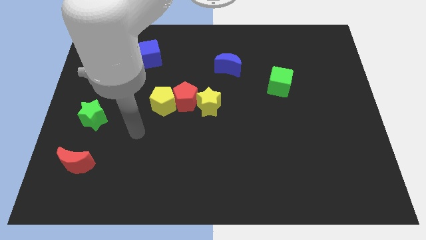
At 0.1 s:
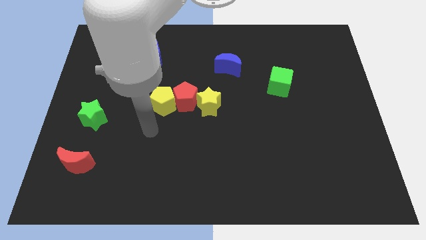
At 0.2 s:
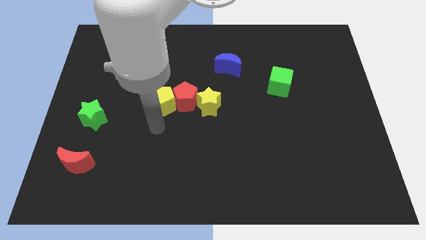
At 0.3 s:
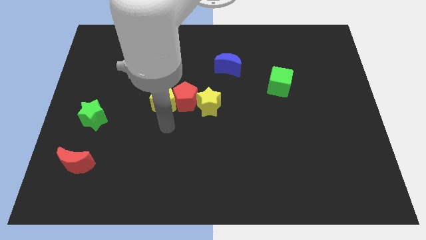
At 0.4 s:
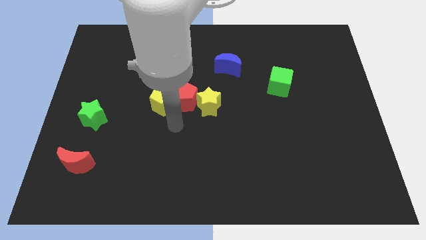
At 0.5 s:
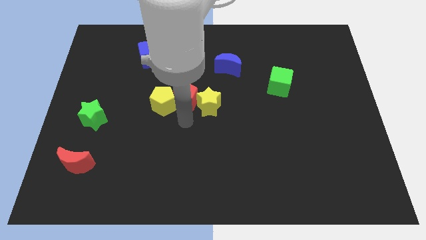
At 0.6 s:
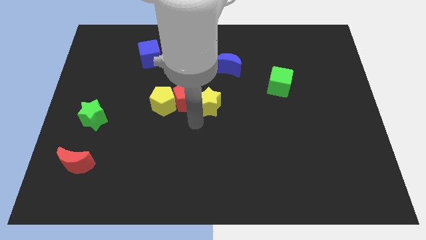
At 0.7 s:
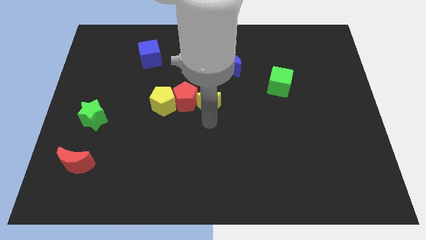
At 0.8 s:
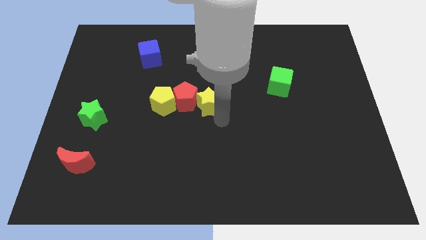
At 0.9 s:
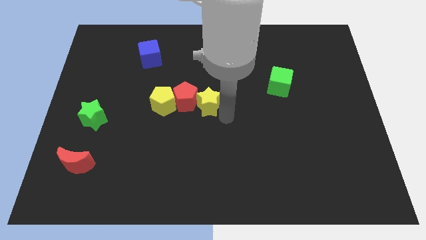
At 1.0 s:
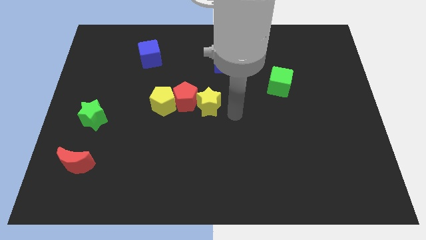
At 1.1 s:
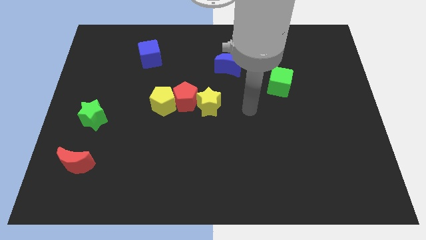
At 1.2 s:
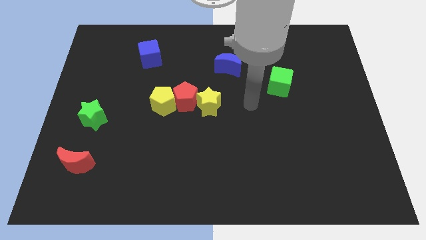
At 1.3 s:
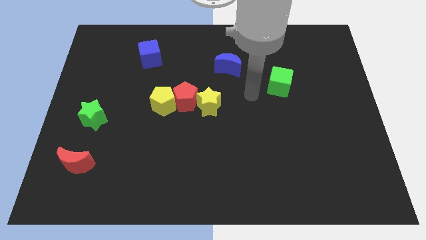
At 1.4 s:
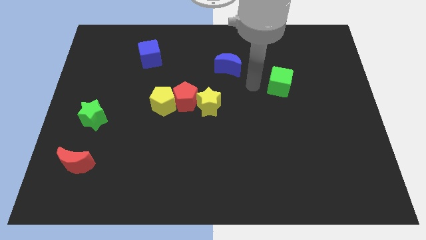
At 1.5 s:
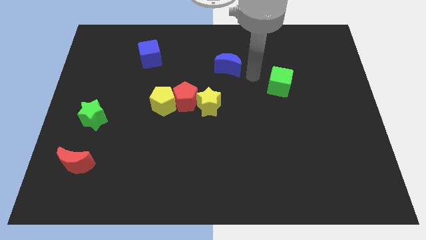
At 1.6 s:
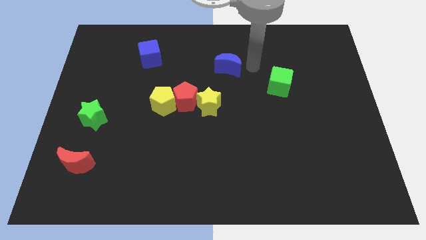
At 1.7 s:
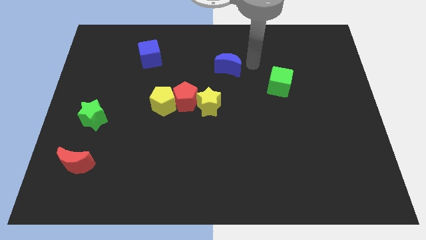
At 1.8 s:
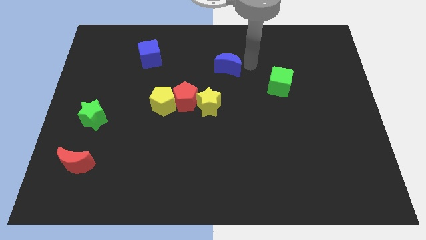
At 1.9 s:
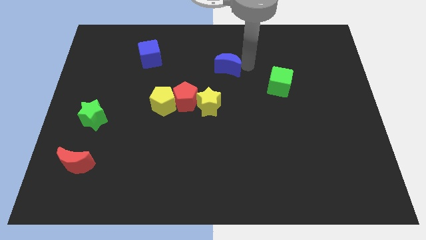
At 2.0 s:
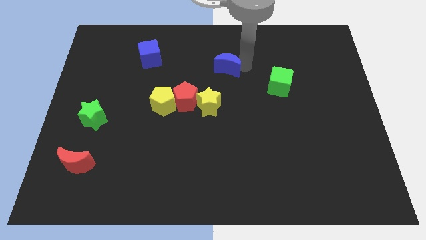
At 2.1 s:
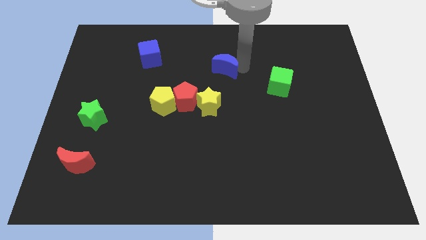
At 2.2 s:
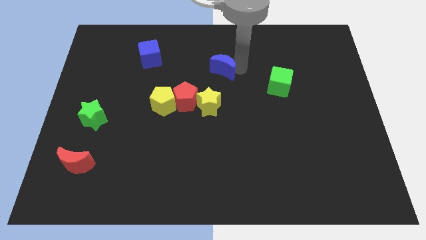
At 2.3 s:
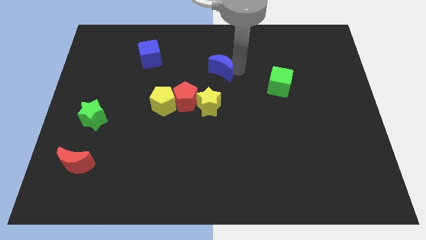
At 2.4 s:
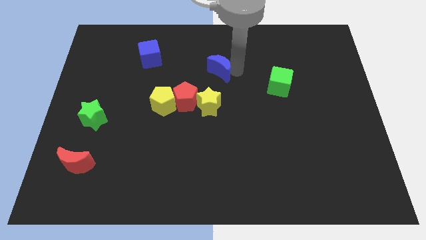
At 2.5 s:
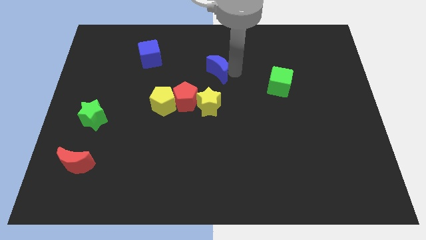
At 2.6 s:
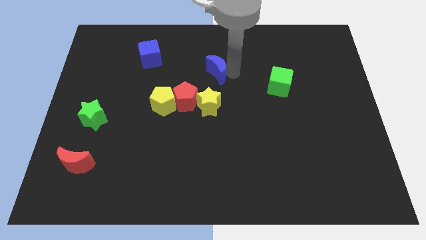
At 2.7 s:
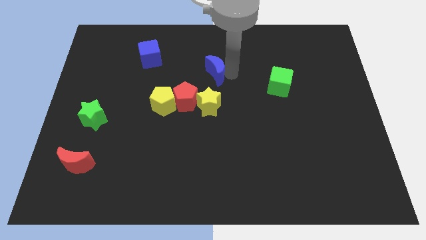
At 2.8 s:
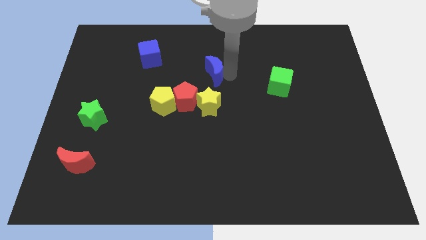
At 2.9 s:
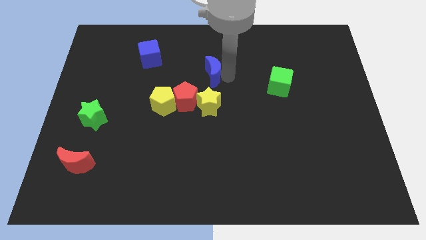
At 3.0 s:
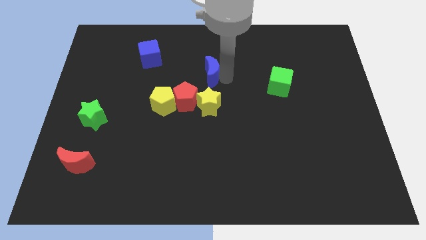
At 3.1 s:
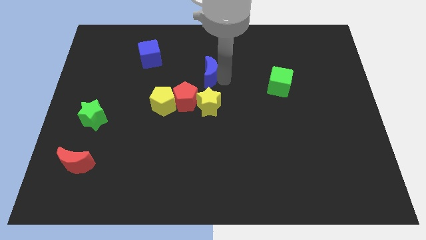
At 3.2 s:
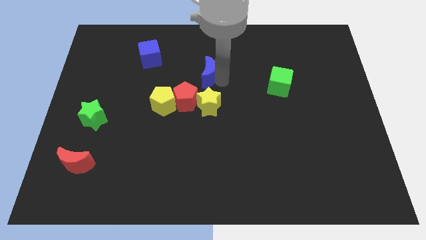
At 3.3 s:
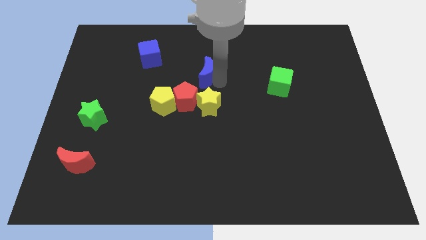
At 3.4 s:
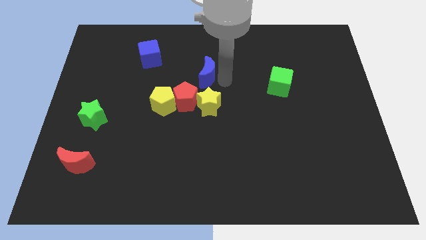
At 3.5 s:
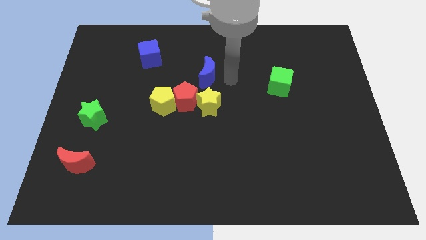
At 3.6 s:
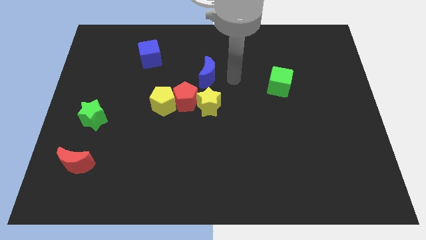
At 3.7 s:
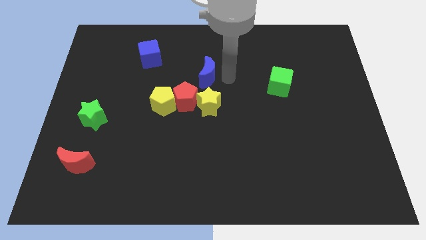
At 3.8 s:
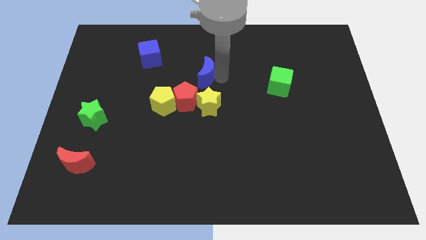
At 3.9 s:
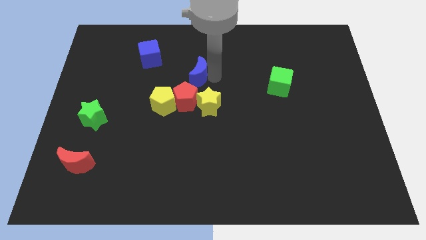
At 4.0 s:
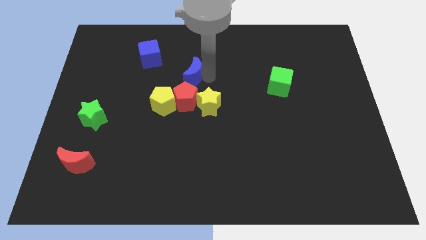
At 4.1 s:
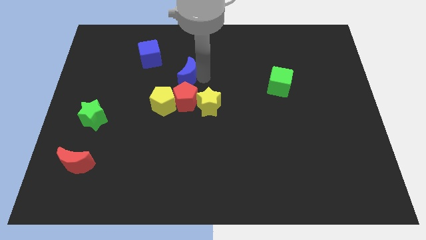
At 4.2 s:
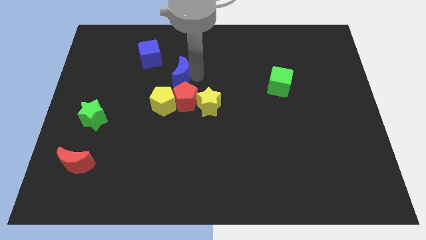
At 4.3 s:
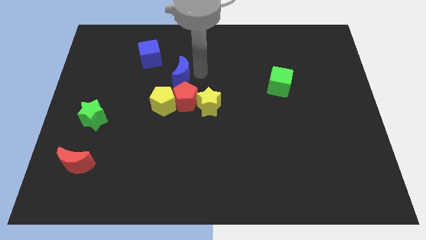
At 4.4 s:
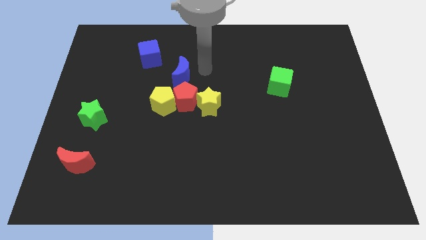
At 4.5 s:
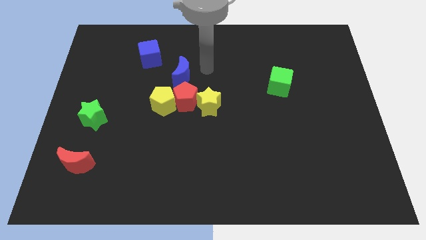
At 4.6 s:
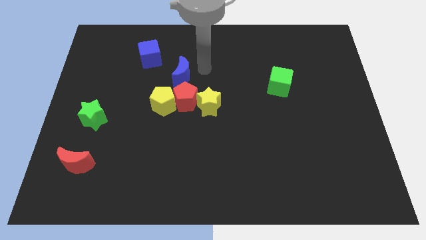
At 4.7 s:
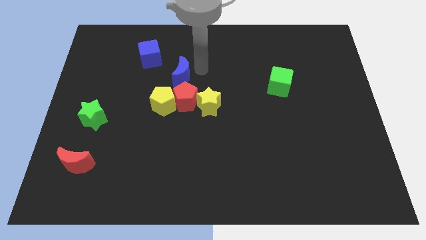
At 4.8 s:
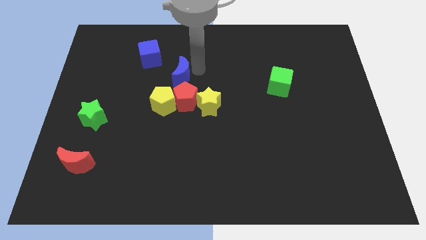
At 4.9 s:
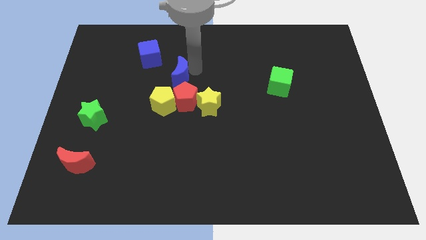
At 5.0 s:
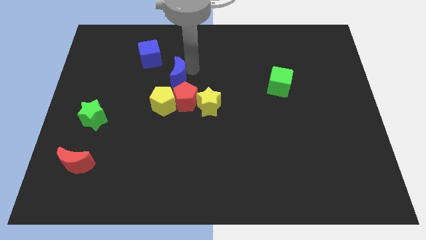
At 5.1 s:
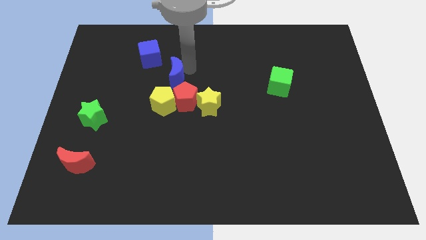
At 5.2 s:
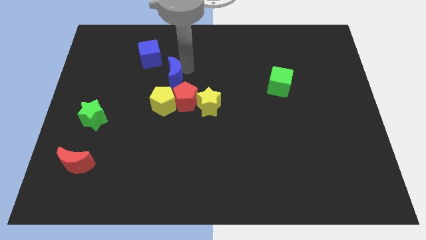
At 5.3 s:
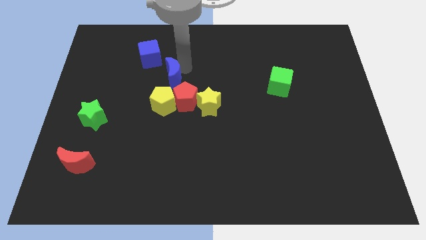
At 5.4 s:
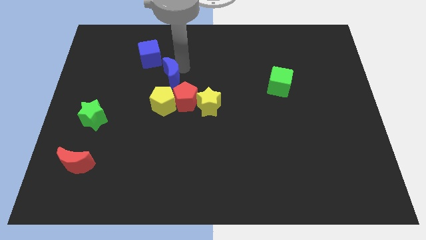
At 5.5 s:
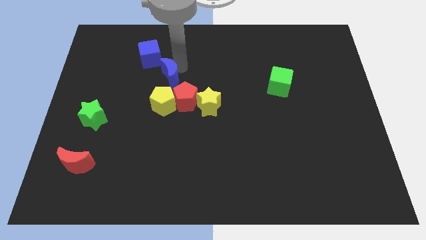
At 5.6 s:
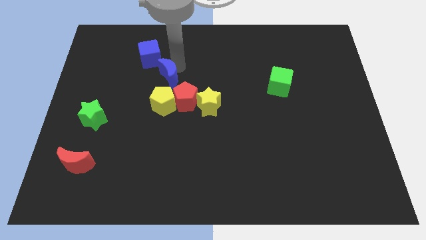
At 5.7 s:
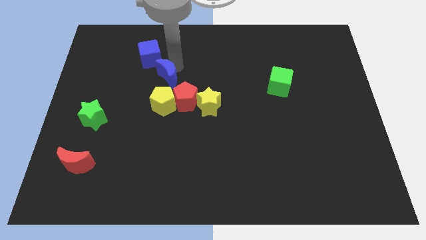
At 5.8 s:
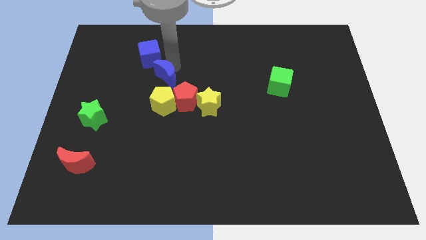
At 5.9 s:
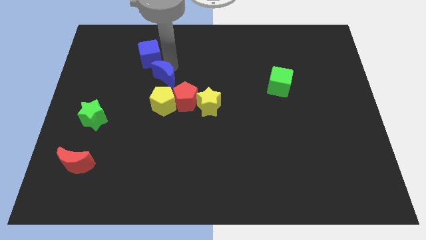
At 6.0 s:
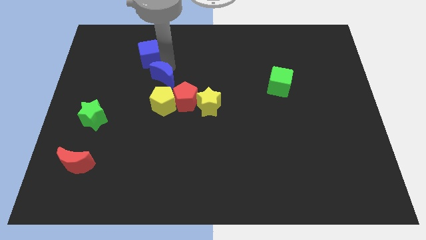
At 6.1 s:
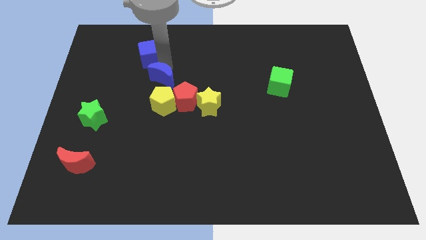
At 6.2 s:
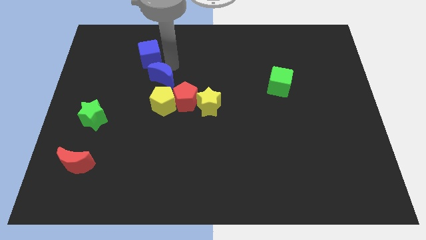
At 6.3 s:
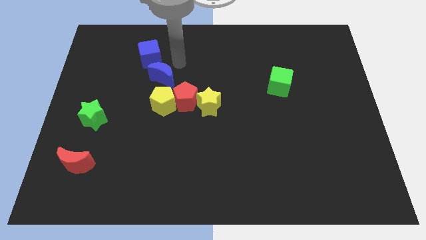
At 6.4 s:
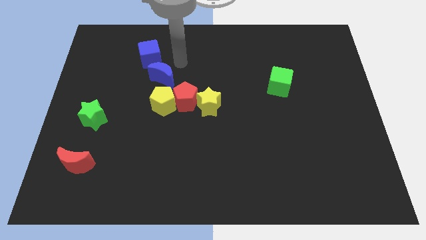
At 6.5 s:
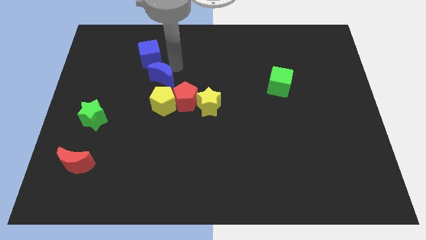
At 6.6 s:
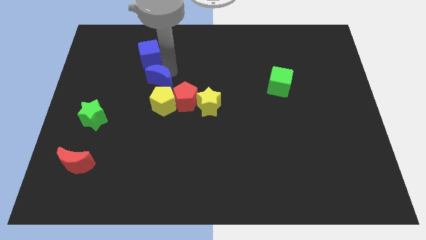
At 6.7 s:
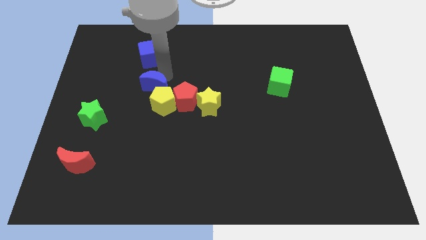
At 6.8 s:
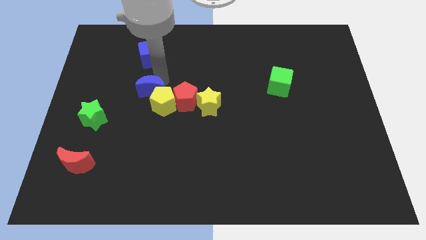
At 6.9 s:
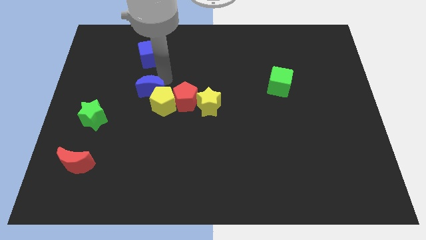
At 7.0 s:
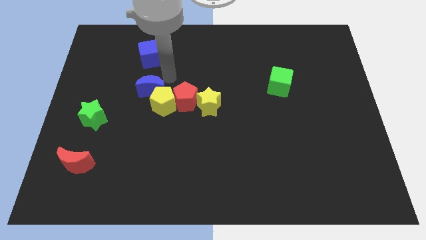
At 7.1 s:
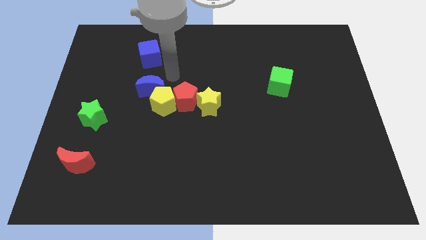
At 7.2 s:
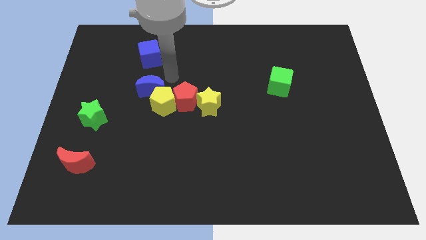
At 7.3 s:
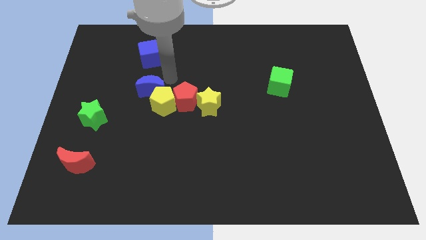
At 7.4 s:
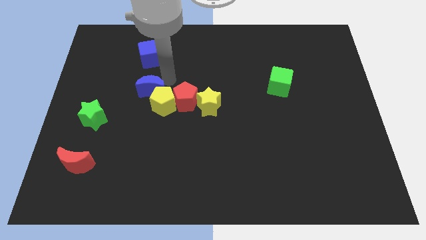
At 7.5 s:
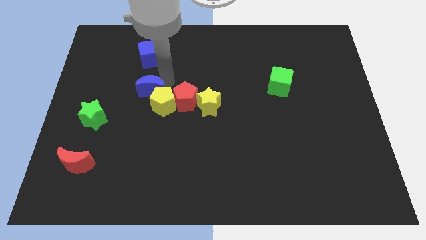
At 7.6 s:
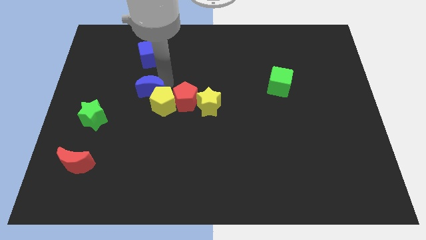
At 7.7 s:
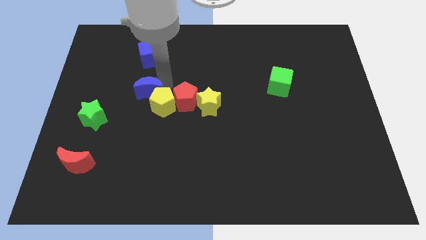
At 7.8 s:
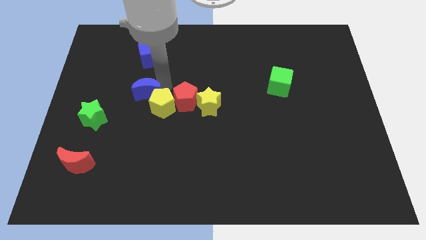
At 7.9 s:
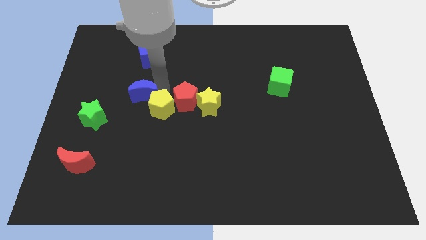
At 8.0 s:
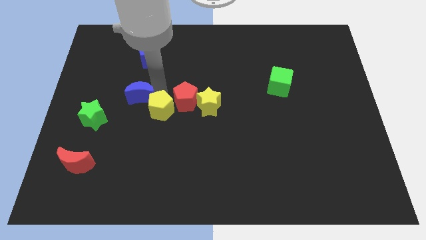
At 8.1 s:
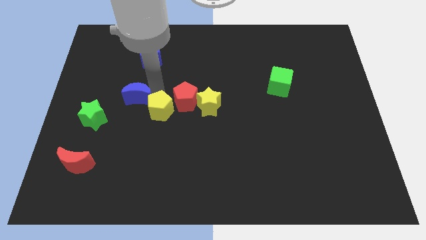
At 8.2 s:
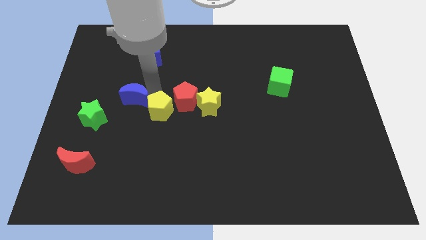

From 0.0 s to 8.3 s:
slide the blue moon down and to the left diagonally
